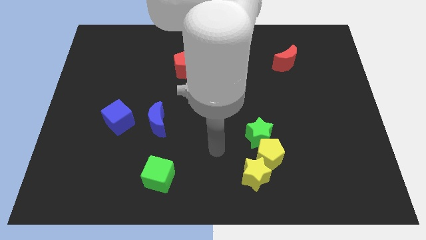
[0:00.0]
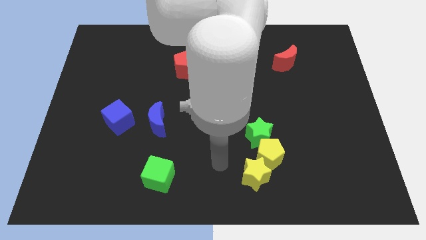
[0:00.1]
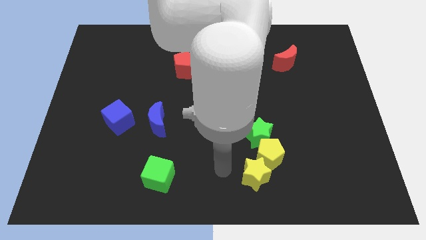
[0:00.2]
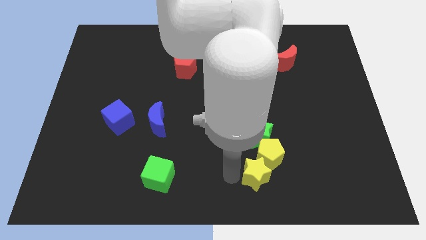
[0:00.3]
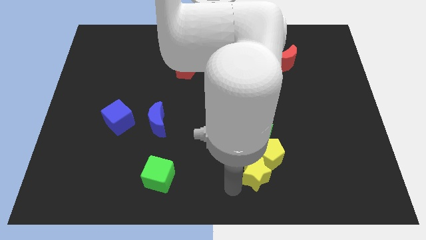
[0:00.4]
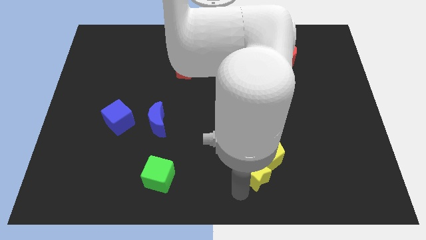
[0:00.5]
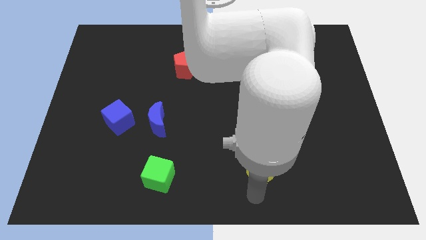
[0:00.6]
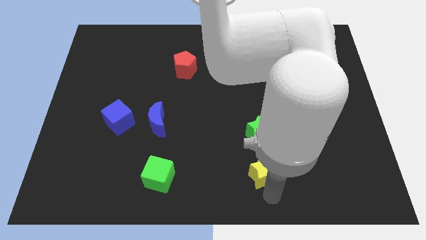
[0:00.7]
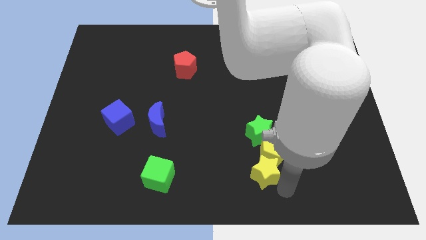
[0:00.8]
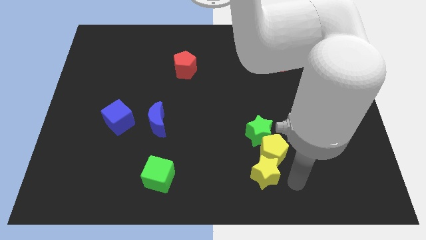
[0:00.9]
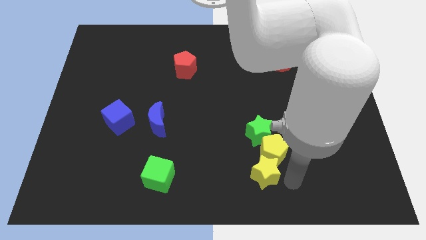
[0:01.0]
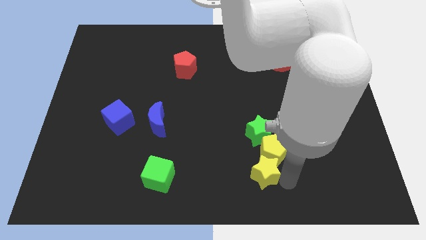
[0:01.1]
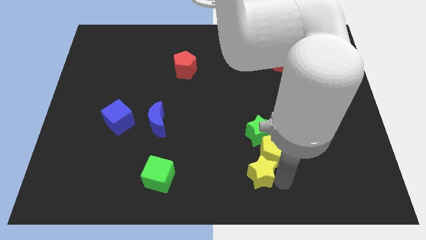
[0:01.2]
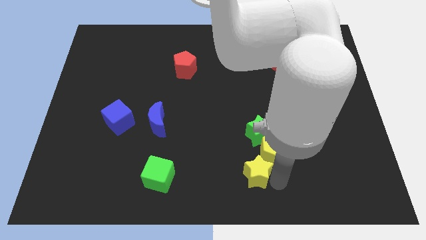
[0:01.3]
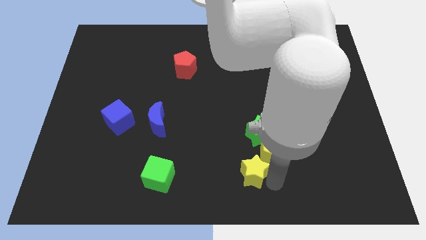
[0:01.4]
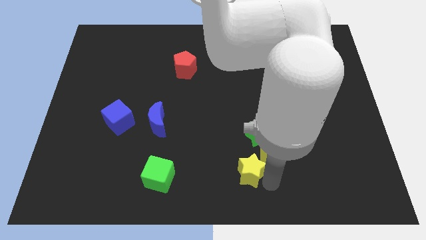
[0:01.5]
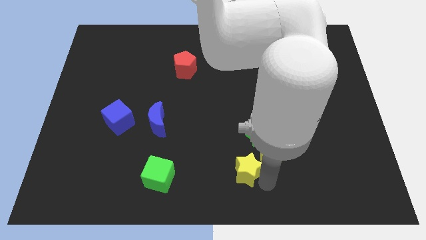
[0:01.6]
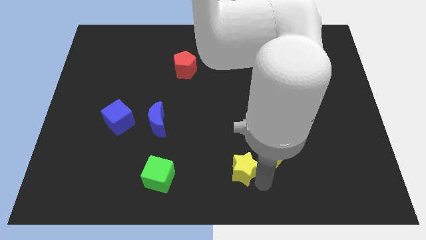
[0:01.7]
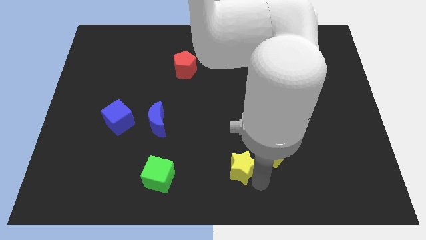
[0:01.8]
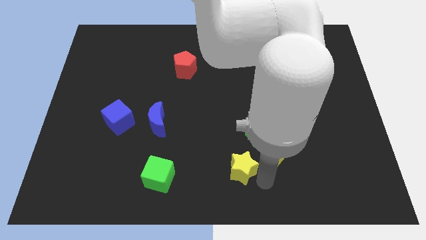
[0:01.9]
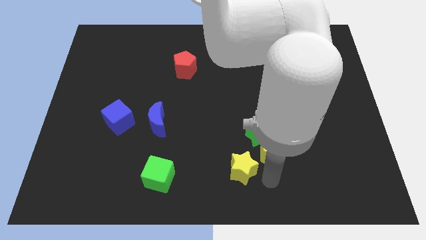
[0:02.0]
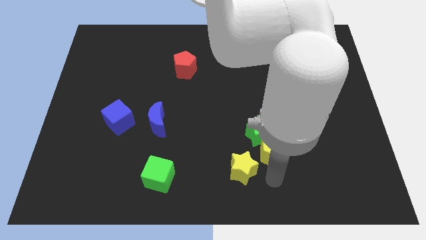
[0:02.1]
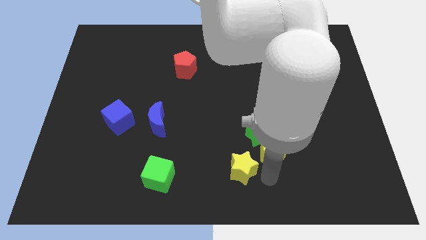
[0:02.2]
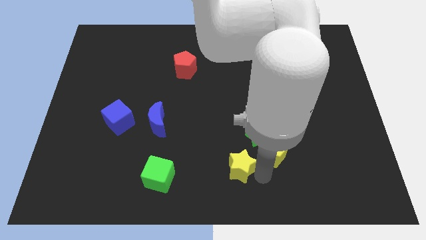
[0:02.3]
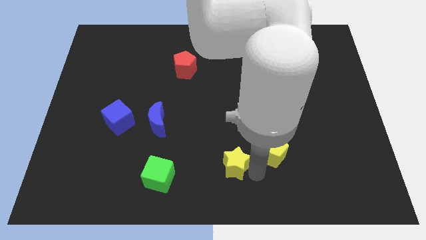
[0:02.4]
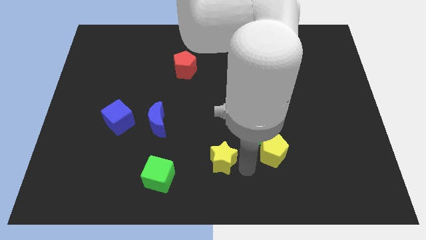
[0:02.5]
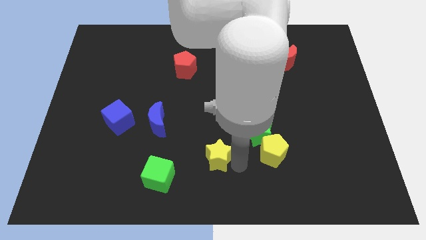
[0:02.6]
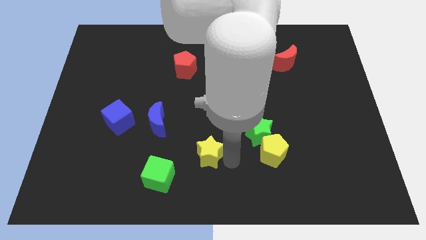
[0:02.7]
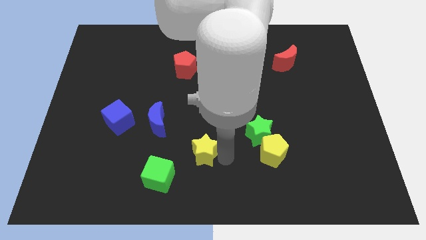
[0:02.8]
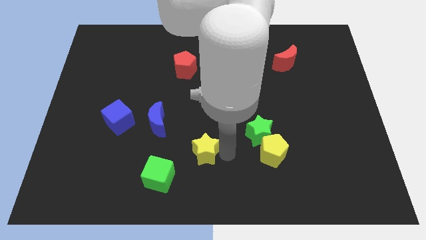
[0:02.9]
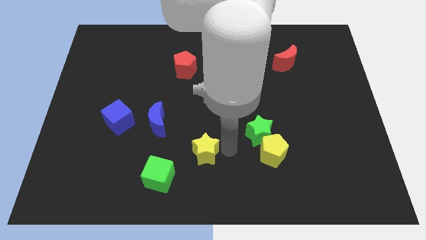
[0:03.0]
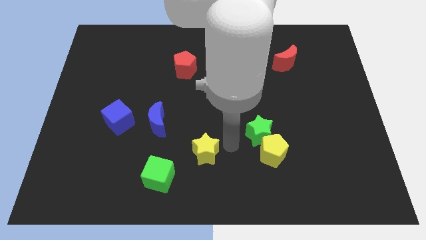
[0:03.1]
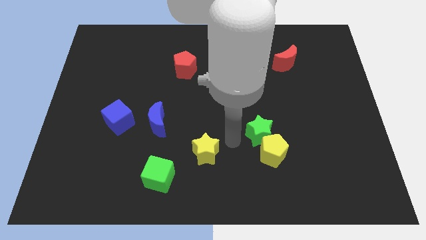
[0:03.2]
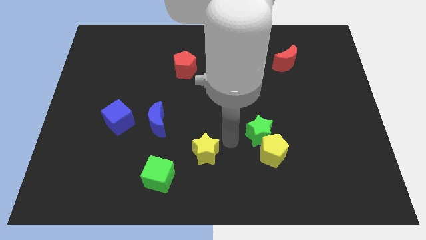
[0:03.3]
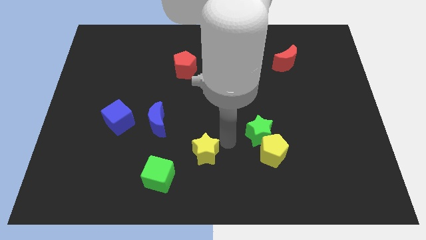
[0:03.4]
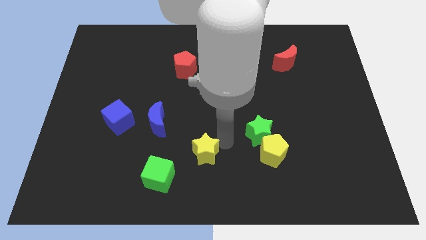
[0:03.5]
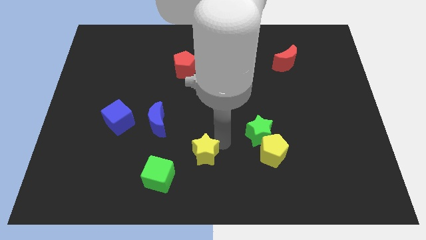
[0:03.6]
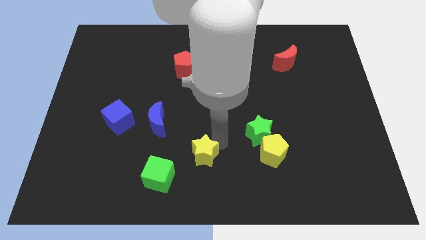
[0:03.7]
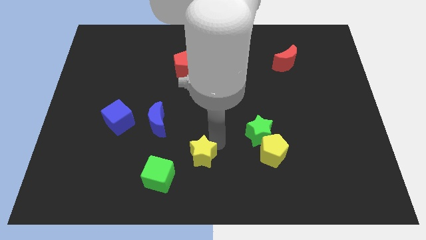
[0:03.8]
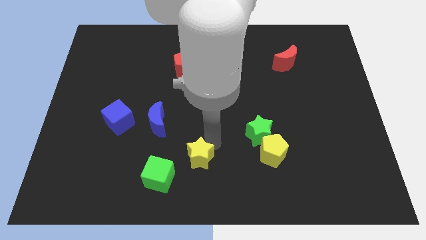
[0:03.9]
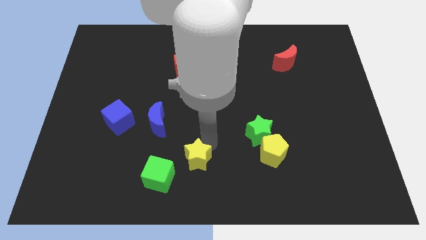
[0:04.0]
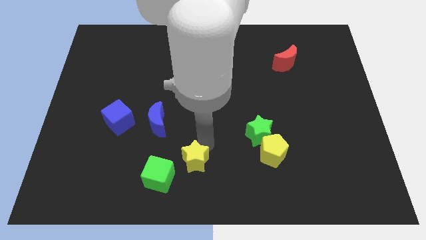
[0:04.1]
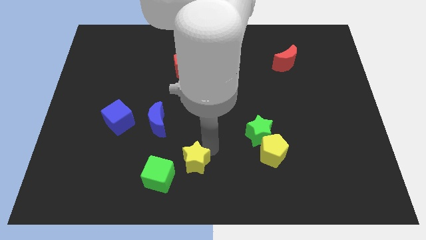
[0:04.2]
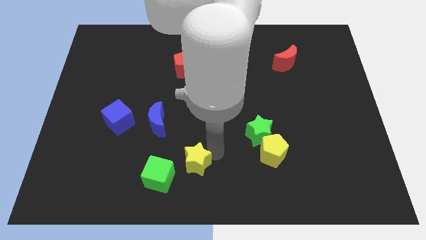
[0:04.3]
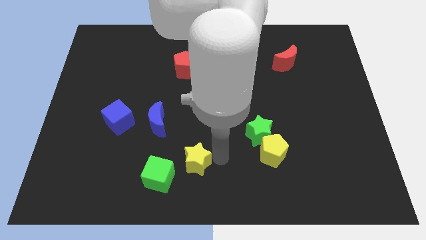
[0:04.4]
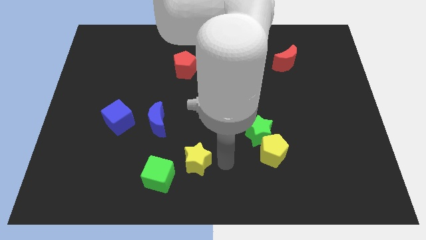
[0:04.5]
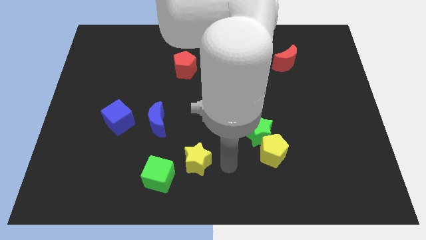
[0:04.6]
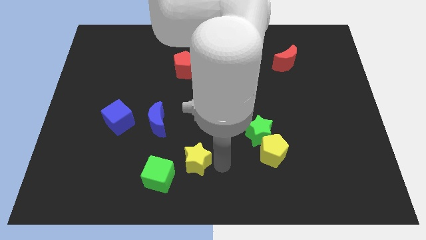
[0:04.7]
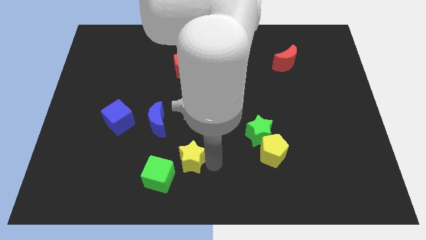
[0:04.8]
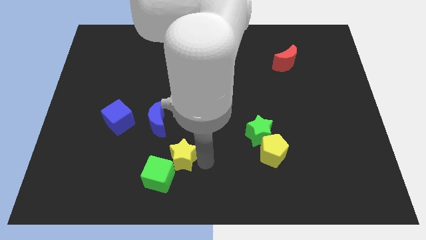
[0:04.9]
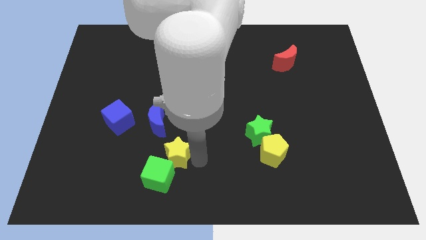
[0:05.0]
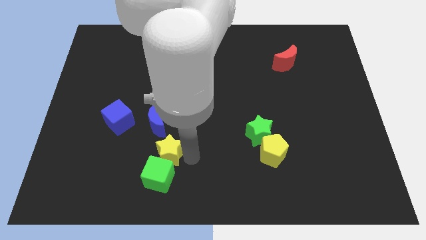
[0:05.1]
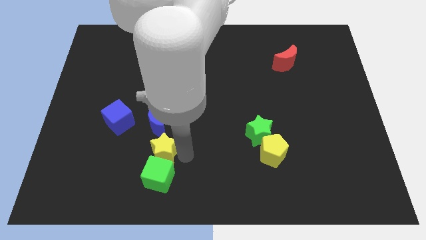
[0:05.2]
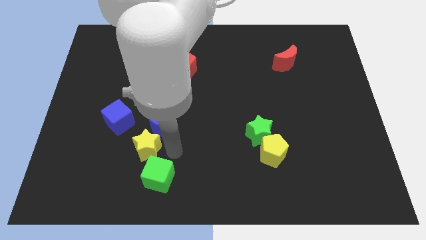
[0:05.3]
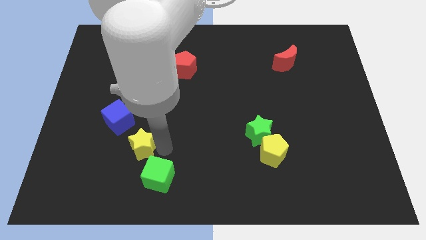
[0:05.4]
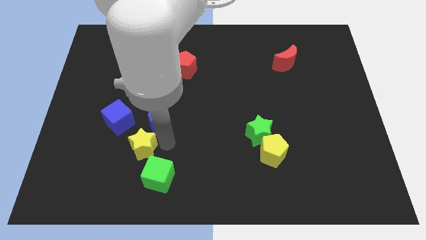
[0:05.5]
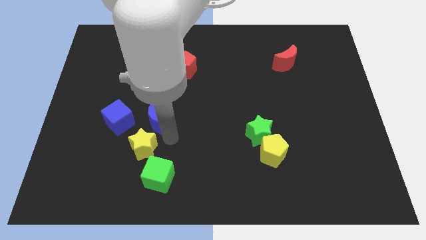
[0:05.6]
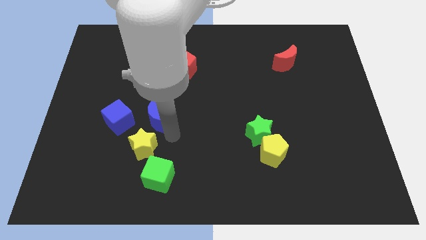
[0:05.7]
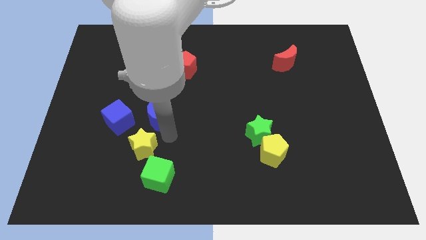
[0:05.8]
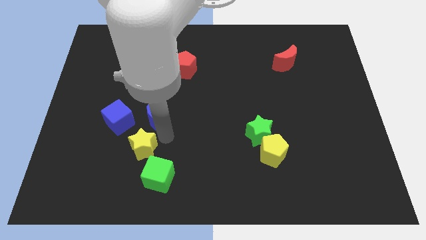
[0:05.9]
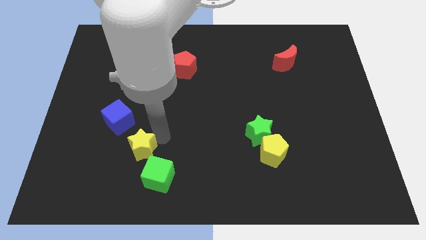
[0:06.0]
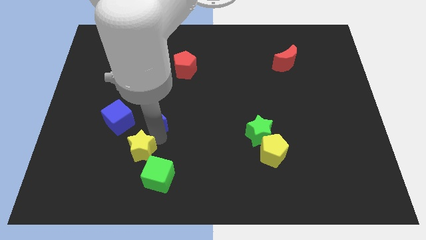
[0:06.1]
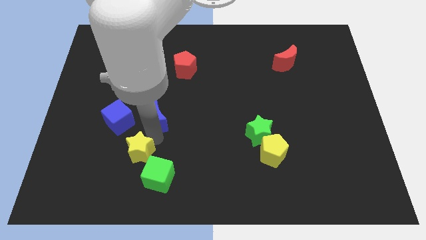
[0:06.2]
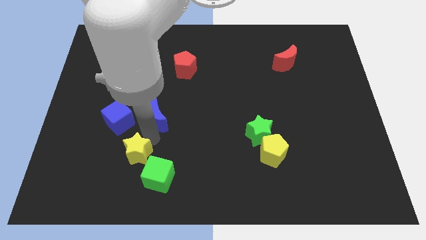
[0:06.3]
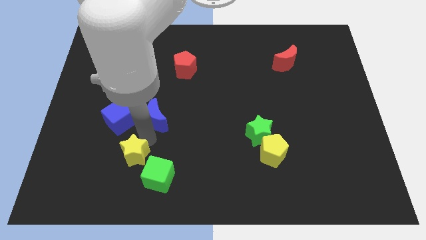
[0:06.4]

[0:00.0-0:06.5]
move the yellow star to the bottom of the blue cube

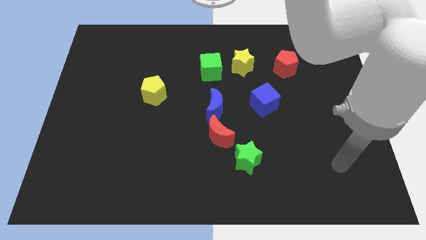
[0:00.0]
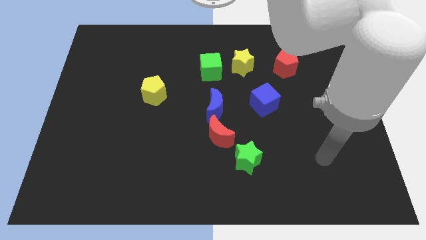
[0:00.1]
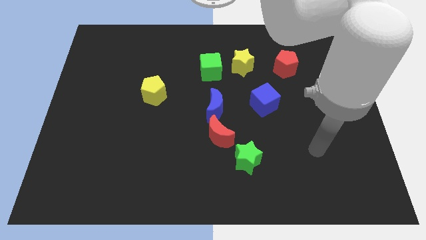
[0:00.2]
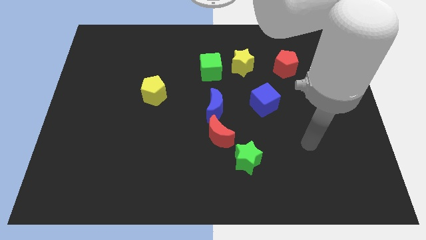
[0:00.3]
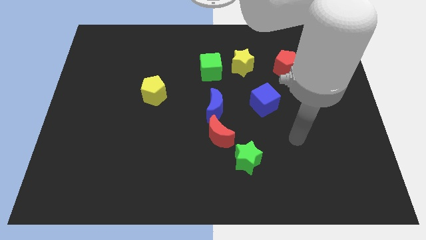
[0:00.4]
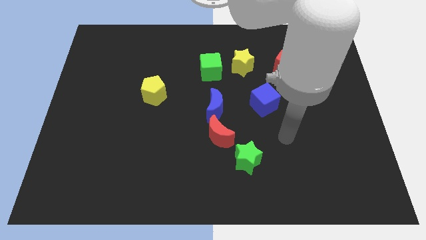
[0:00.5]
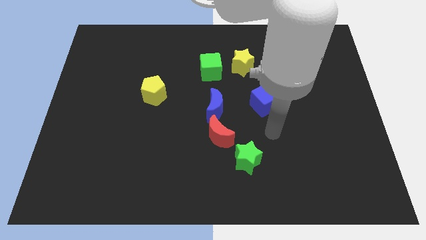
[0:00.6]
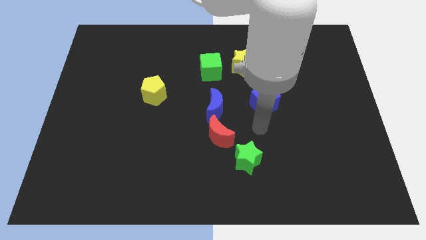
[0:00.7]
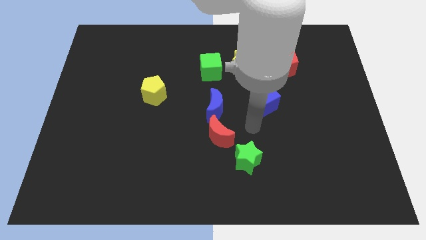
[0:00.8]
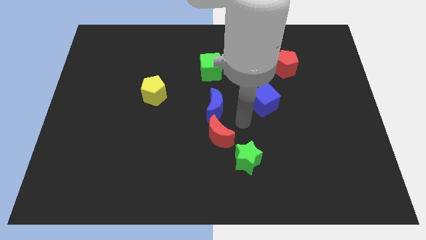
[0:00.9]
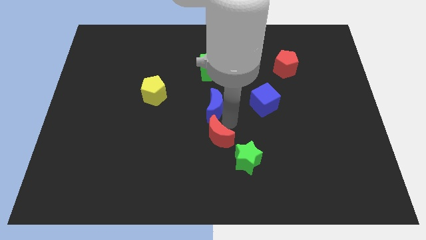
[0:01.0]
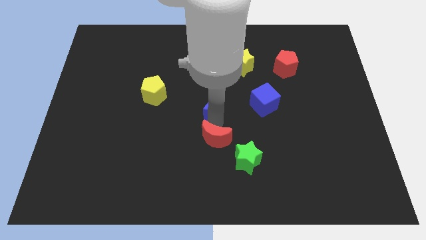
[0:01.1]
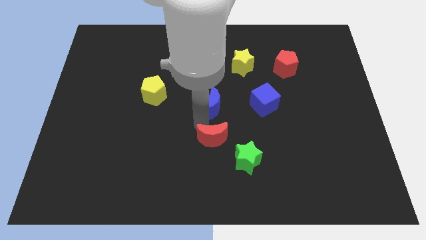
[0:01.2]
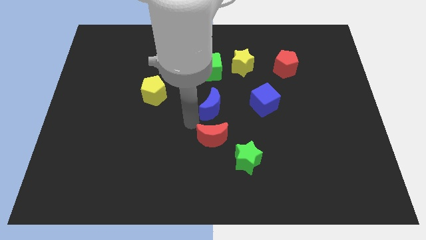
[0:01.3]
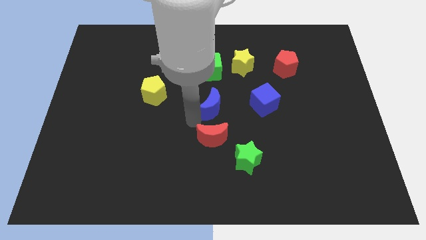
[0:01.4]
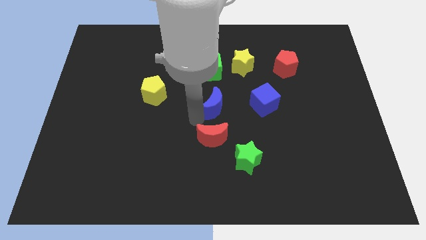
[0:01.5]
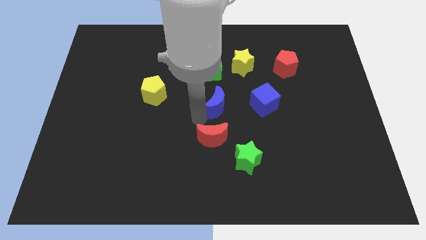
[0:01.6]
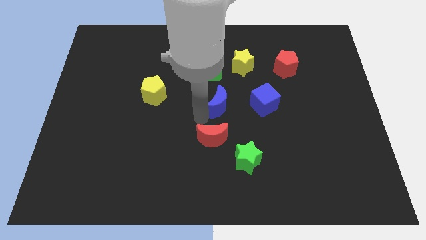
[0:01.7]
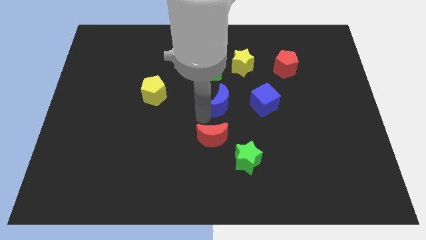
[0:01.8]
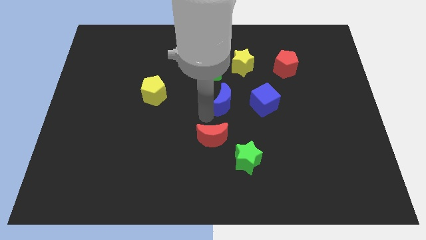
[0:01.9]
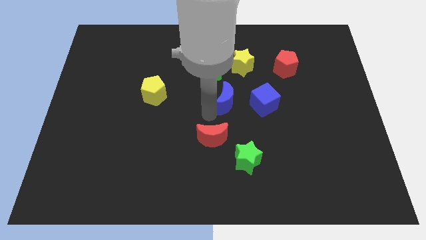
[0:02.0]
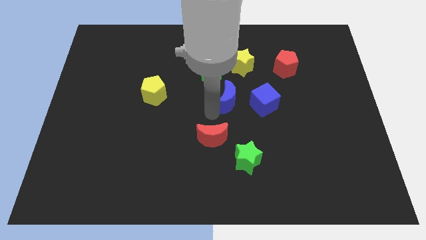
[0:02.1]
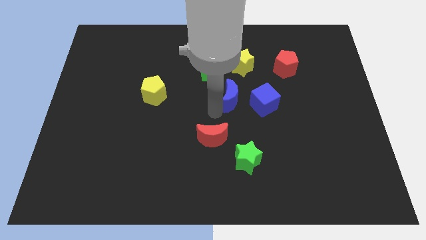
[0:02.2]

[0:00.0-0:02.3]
move the blue moon to the top left side of the blue cube
